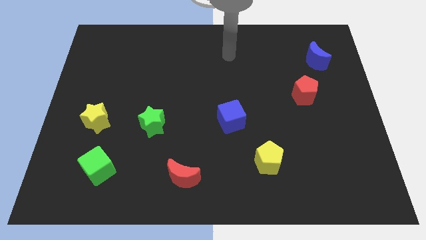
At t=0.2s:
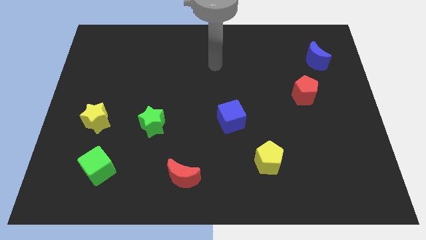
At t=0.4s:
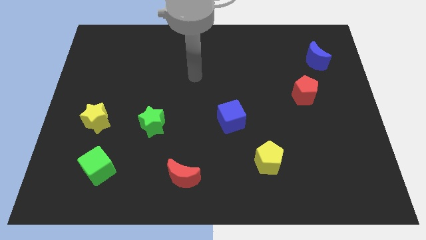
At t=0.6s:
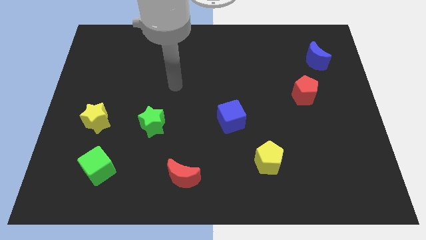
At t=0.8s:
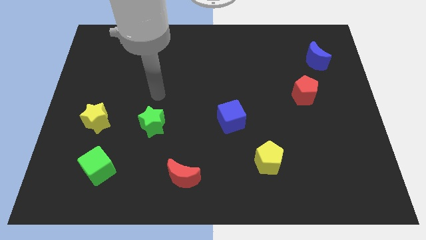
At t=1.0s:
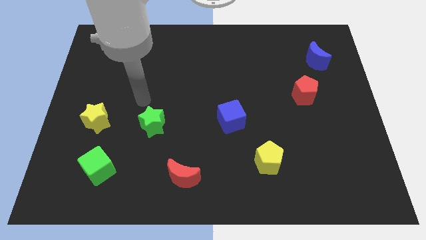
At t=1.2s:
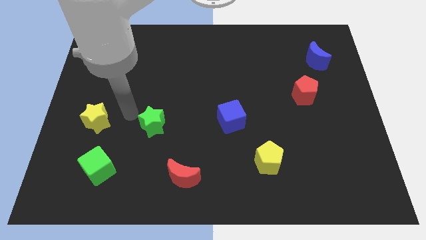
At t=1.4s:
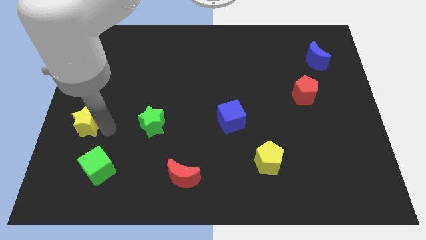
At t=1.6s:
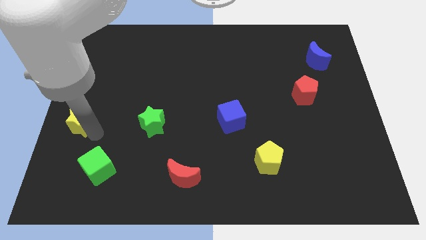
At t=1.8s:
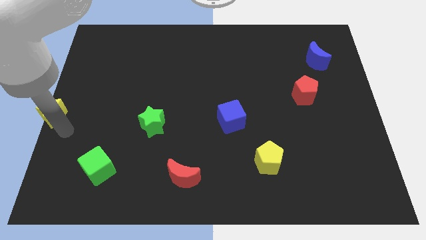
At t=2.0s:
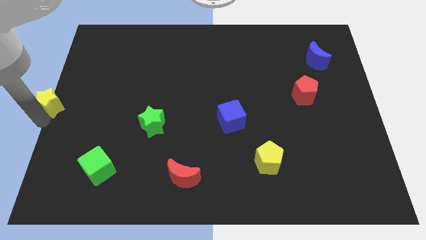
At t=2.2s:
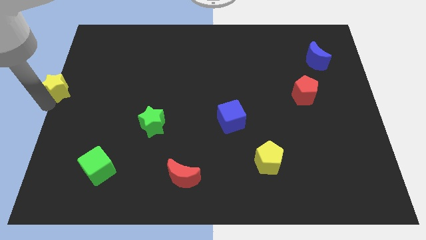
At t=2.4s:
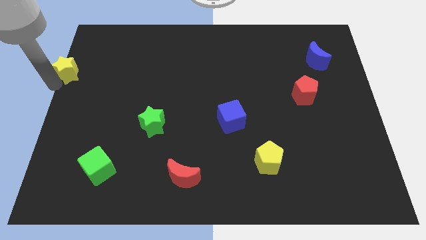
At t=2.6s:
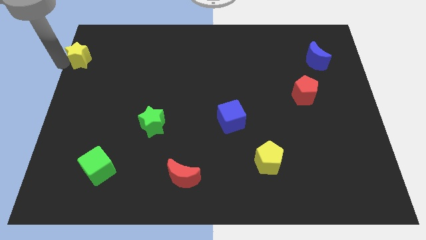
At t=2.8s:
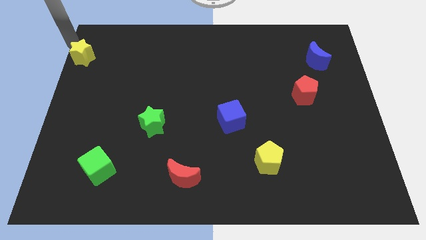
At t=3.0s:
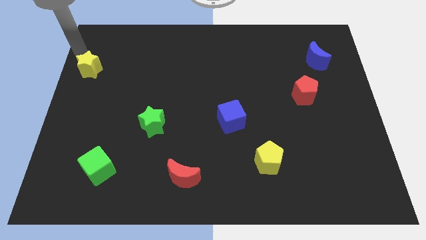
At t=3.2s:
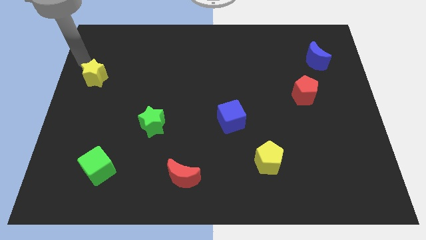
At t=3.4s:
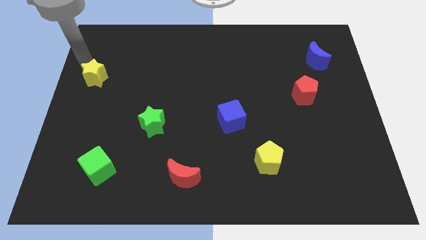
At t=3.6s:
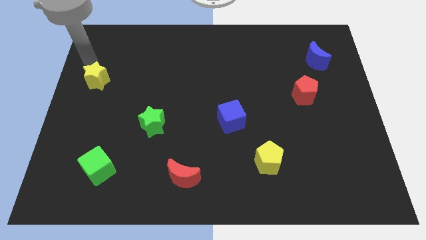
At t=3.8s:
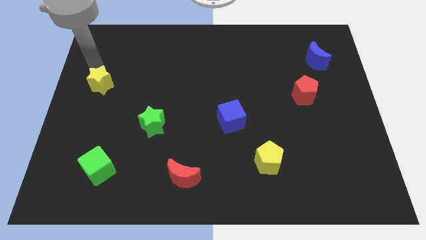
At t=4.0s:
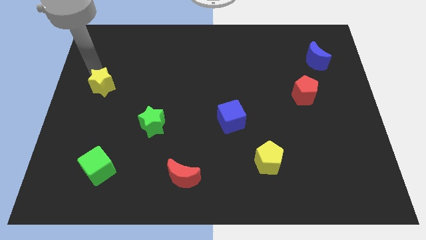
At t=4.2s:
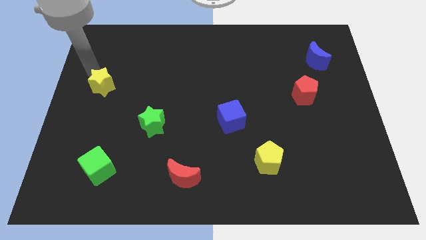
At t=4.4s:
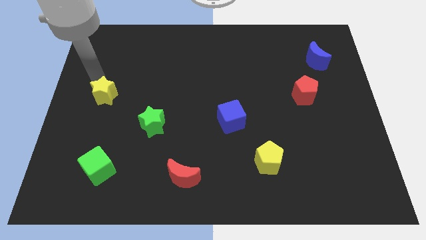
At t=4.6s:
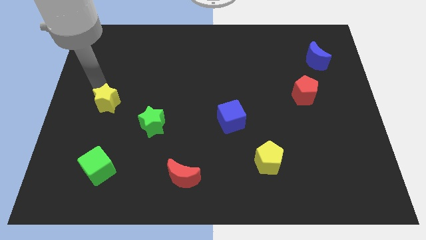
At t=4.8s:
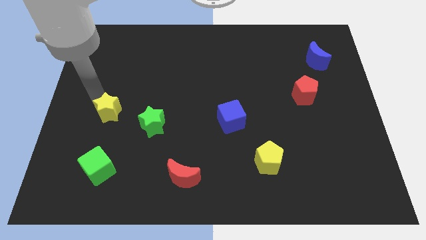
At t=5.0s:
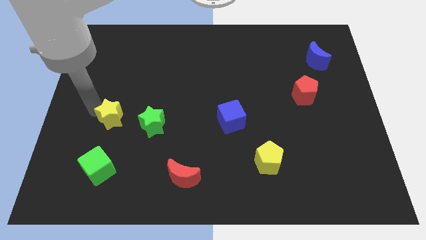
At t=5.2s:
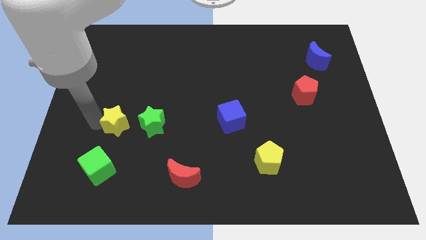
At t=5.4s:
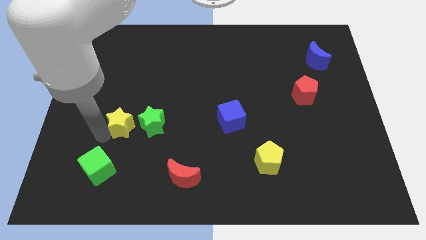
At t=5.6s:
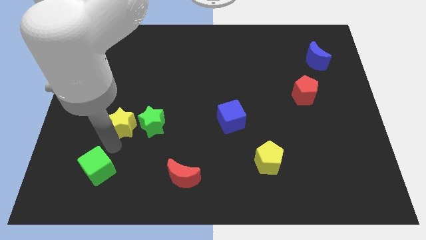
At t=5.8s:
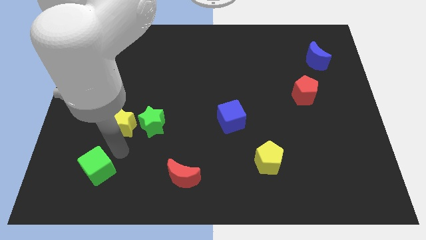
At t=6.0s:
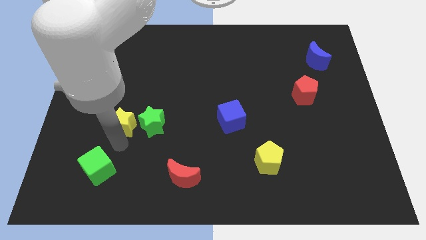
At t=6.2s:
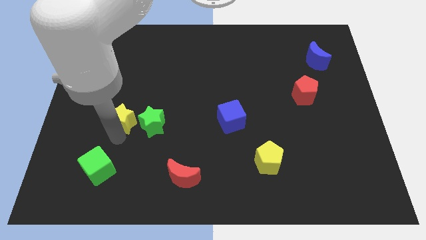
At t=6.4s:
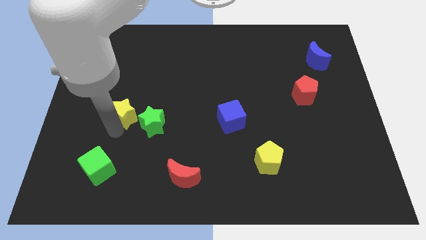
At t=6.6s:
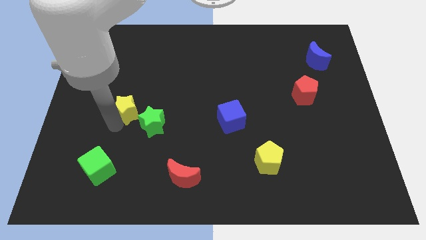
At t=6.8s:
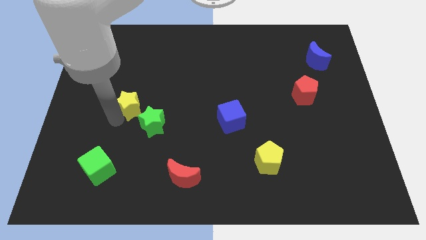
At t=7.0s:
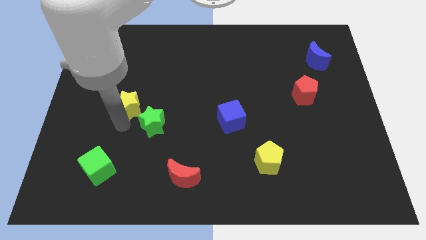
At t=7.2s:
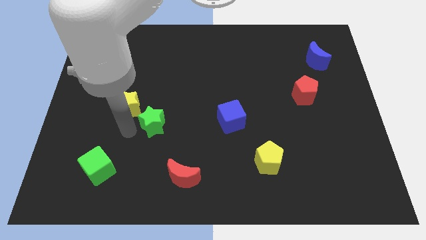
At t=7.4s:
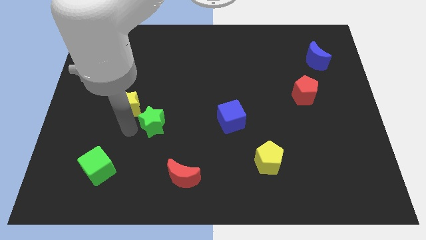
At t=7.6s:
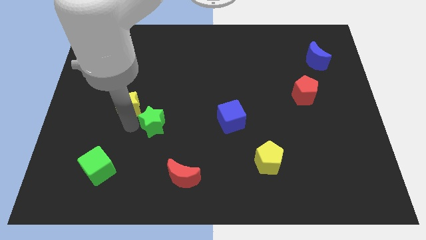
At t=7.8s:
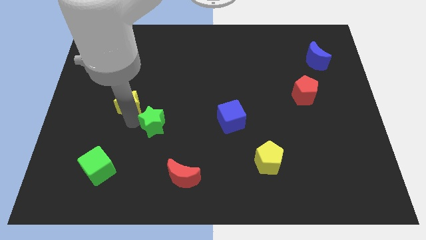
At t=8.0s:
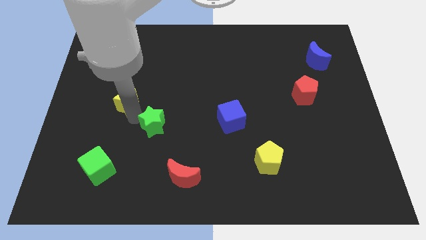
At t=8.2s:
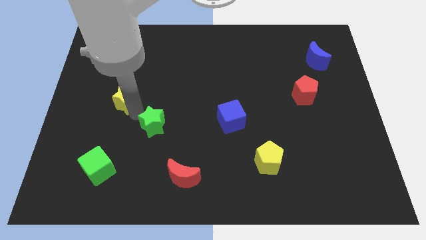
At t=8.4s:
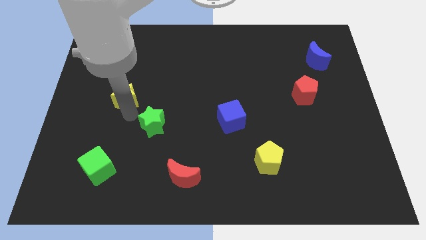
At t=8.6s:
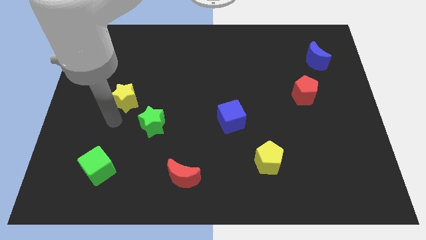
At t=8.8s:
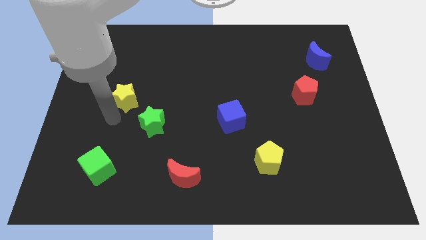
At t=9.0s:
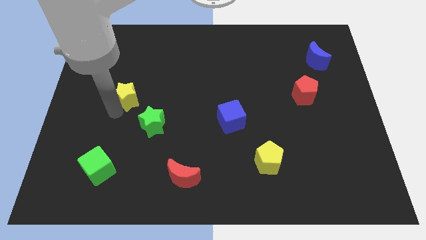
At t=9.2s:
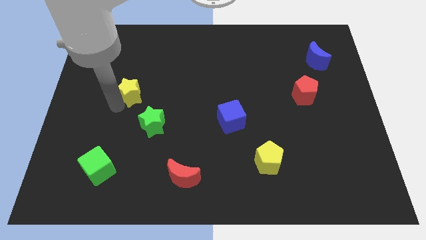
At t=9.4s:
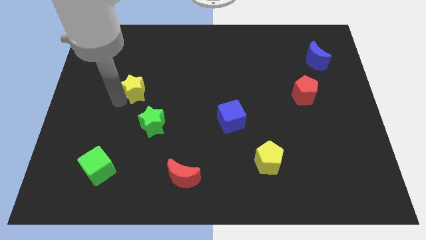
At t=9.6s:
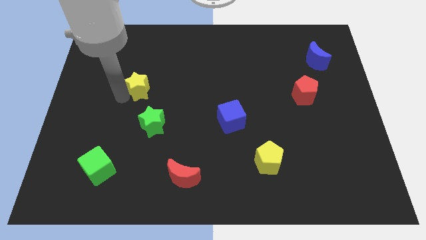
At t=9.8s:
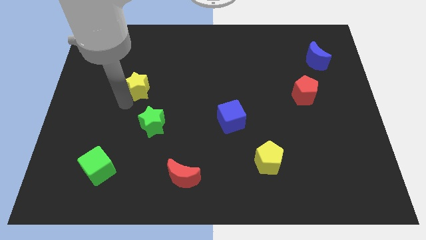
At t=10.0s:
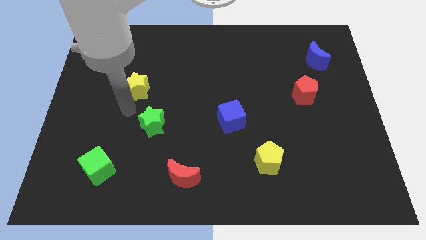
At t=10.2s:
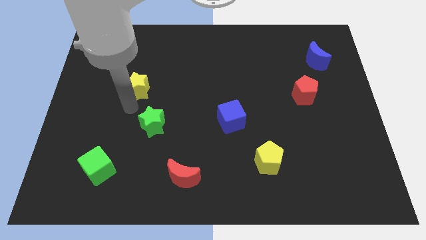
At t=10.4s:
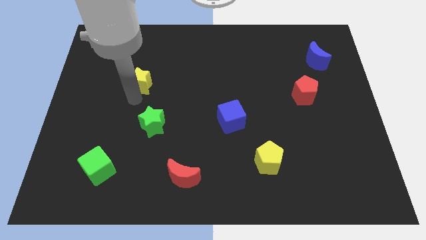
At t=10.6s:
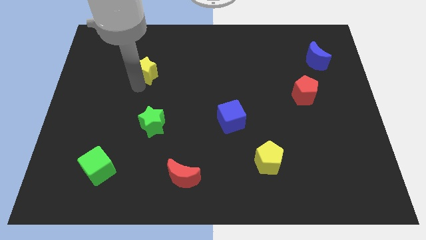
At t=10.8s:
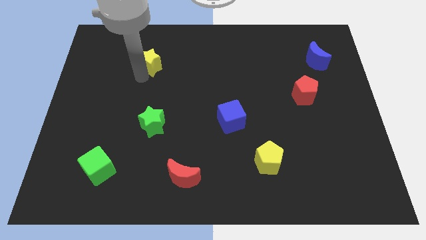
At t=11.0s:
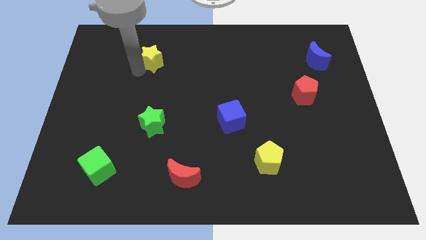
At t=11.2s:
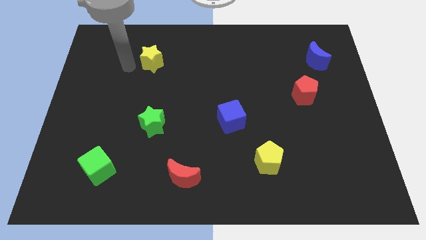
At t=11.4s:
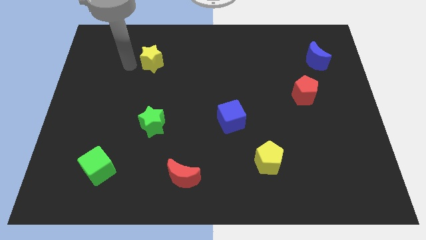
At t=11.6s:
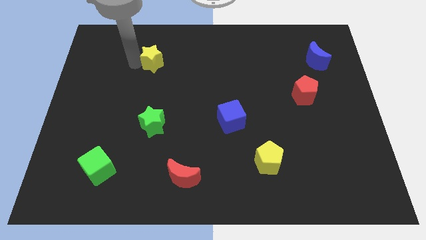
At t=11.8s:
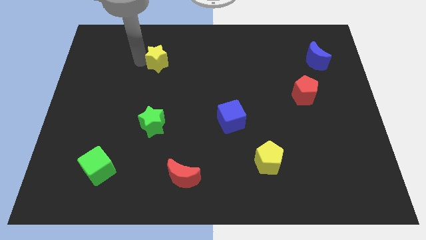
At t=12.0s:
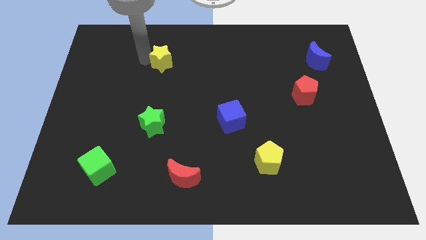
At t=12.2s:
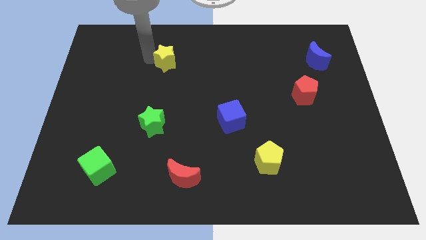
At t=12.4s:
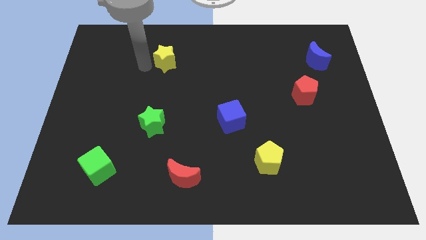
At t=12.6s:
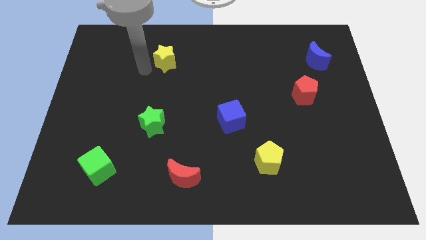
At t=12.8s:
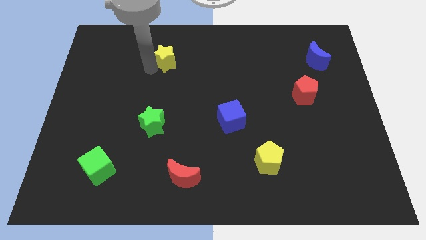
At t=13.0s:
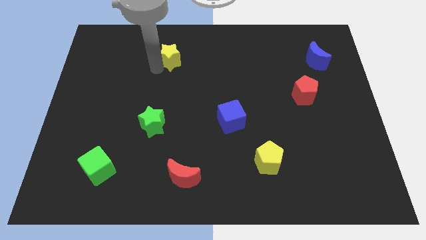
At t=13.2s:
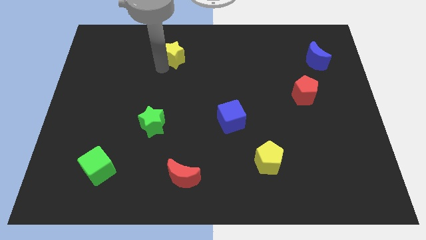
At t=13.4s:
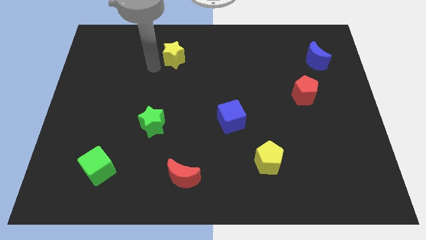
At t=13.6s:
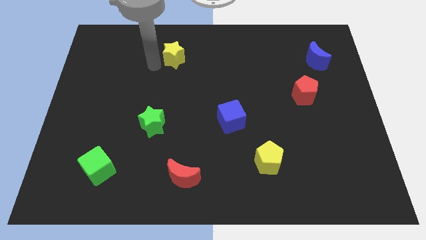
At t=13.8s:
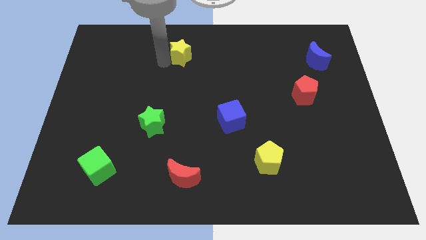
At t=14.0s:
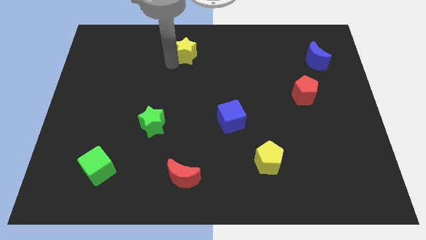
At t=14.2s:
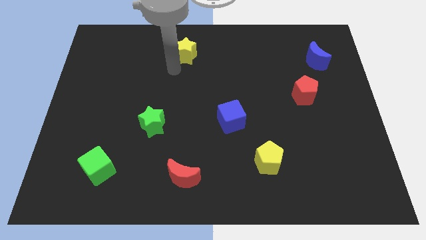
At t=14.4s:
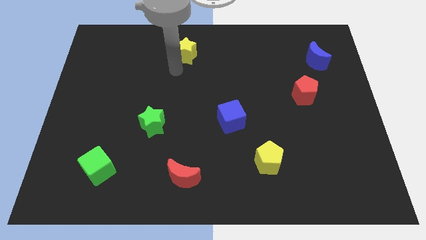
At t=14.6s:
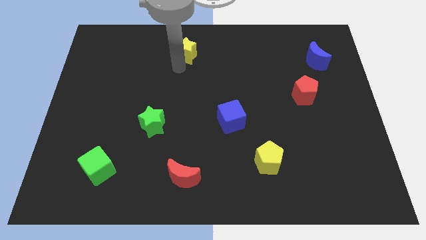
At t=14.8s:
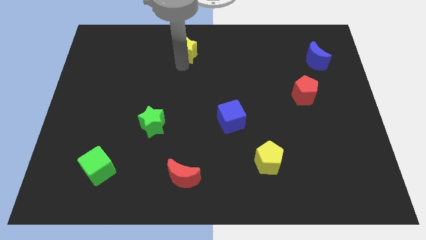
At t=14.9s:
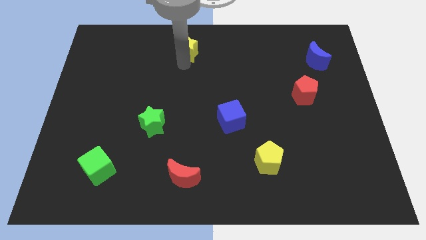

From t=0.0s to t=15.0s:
put the yellow star to the top
